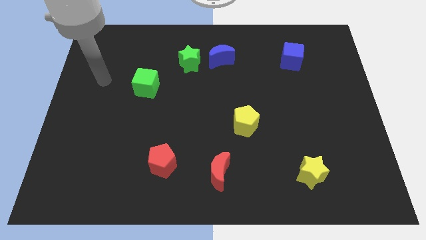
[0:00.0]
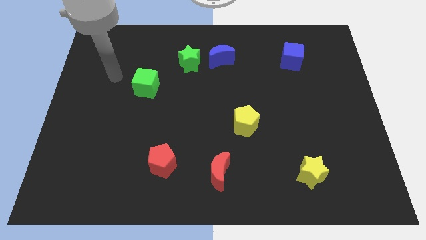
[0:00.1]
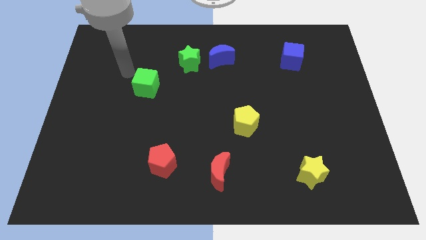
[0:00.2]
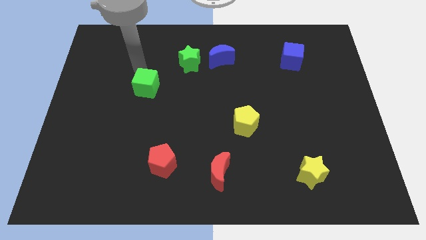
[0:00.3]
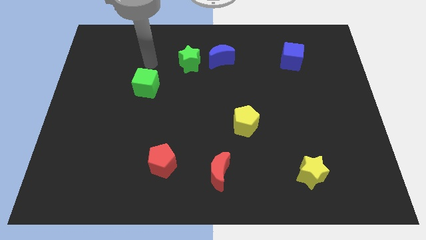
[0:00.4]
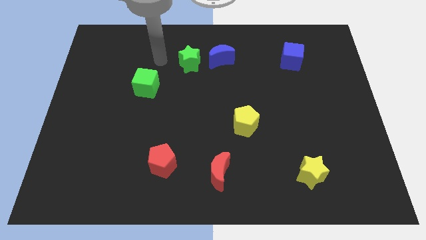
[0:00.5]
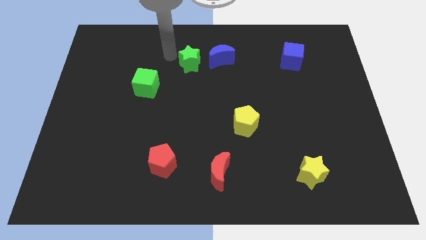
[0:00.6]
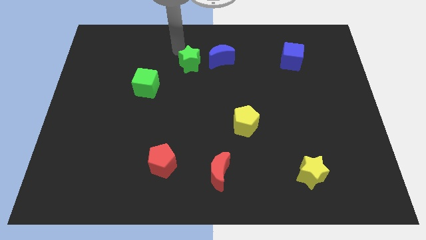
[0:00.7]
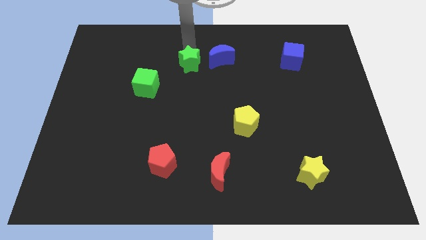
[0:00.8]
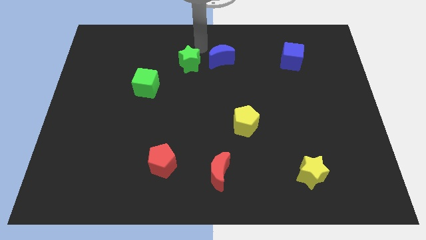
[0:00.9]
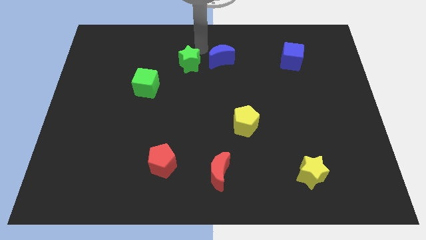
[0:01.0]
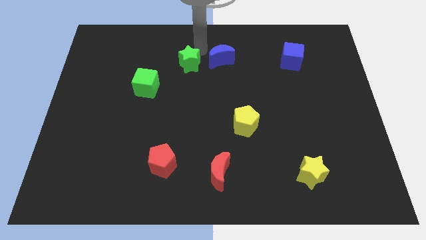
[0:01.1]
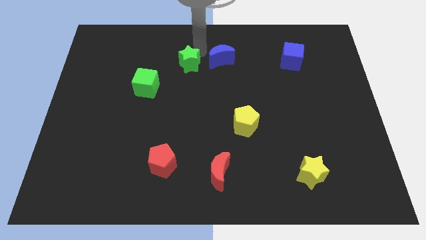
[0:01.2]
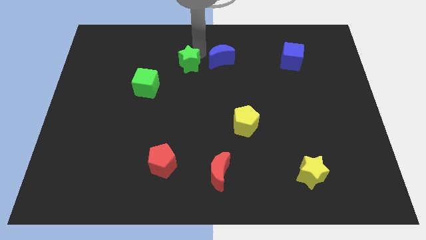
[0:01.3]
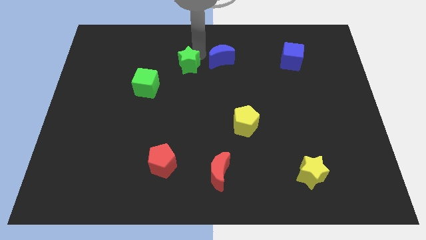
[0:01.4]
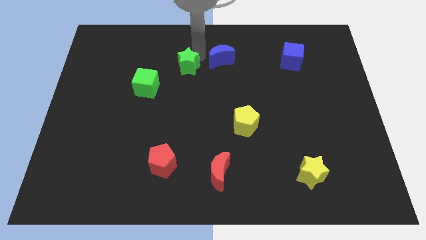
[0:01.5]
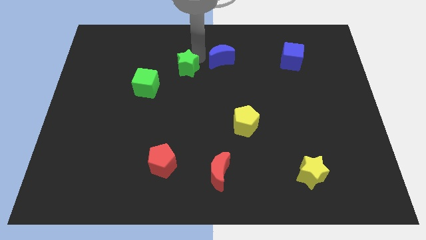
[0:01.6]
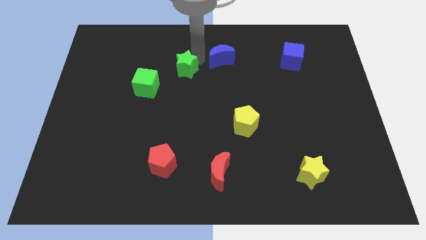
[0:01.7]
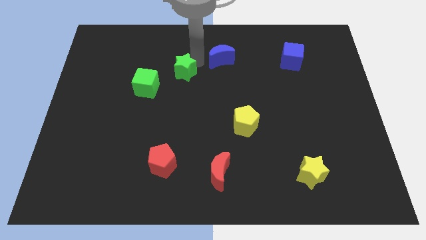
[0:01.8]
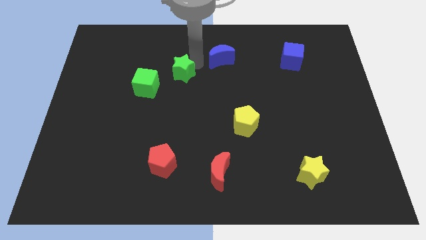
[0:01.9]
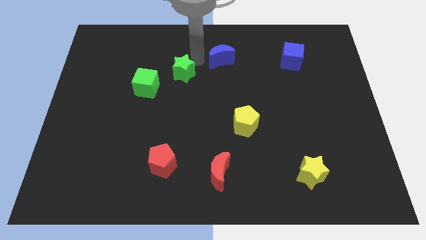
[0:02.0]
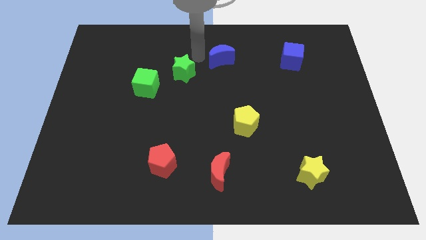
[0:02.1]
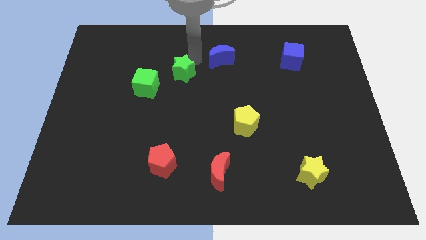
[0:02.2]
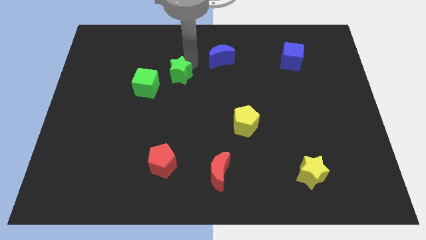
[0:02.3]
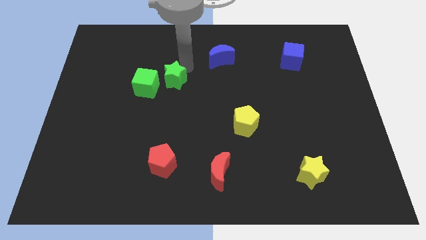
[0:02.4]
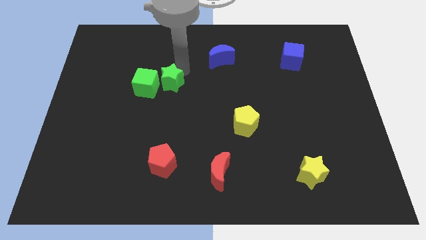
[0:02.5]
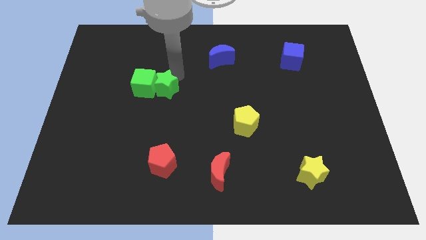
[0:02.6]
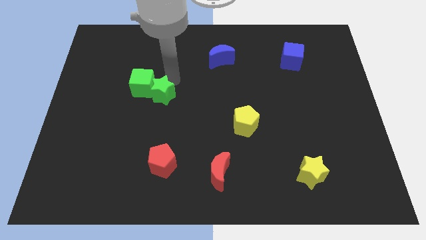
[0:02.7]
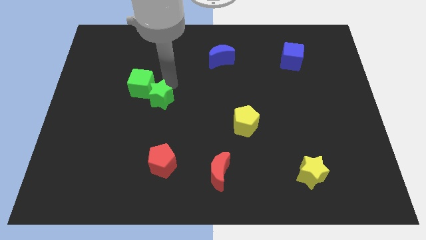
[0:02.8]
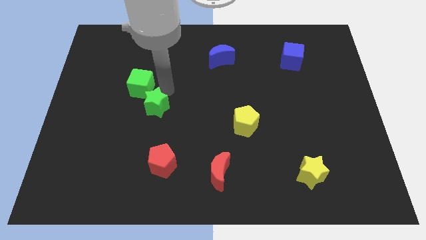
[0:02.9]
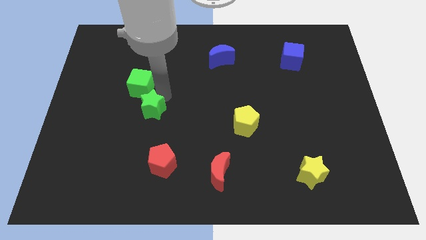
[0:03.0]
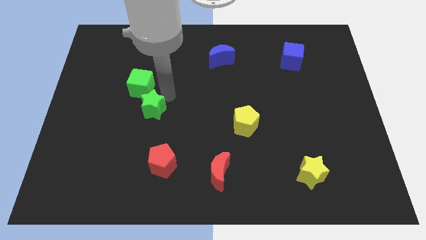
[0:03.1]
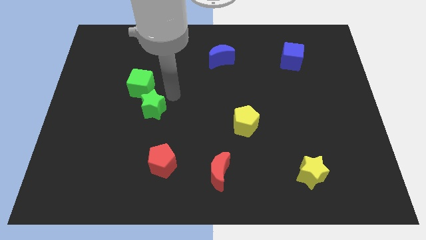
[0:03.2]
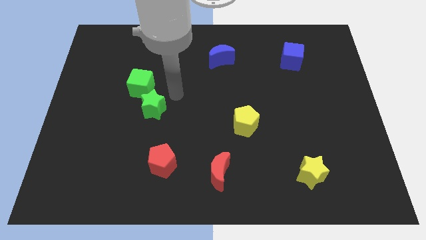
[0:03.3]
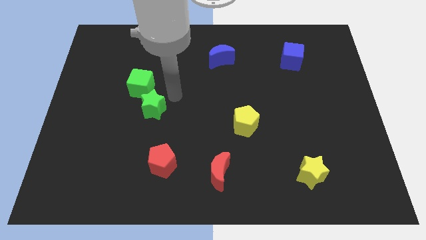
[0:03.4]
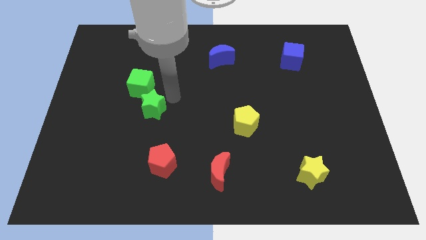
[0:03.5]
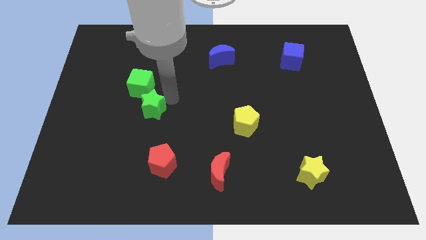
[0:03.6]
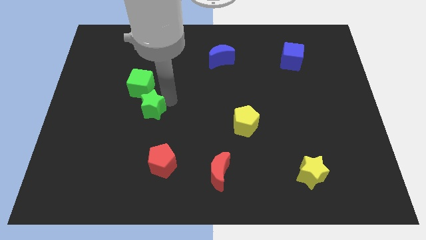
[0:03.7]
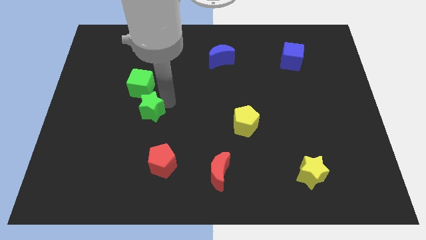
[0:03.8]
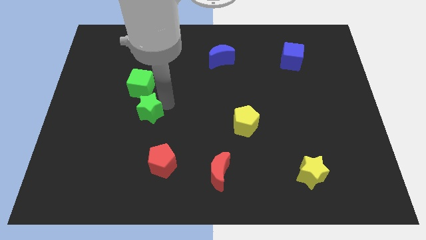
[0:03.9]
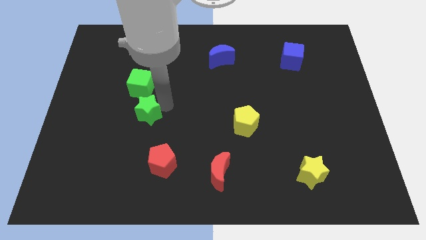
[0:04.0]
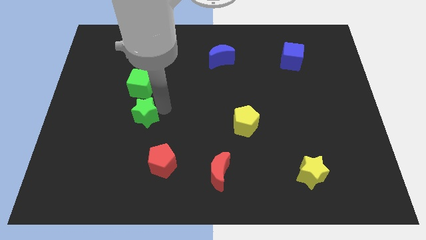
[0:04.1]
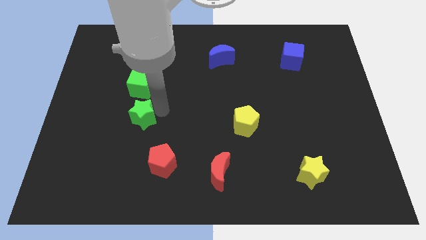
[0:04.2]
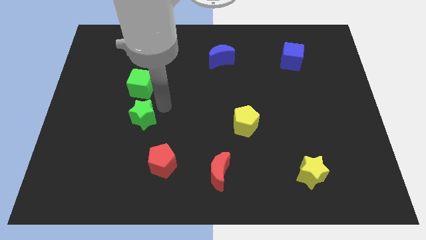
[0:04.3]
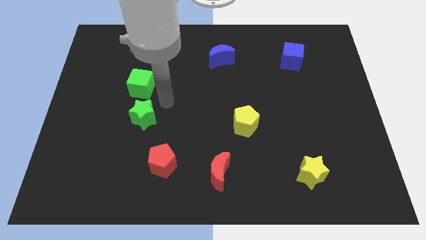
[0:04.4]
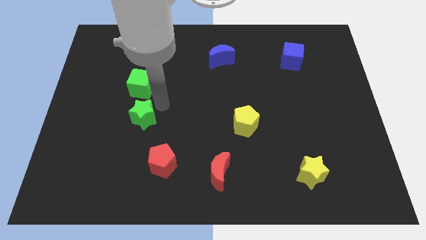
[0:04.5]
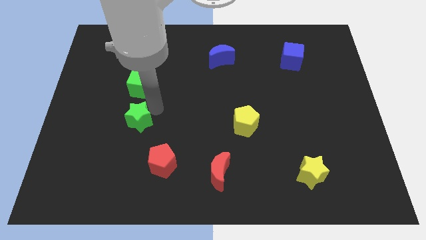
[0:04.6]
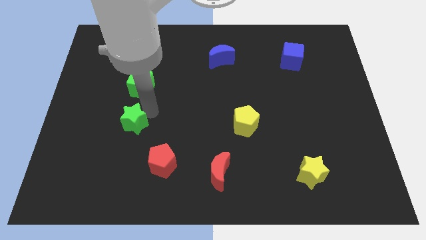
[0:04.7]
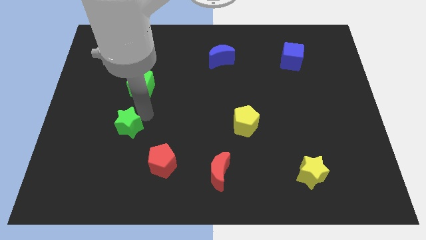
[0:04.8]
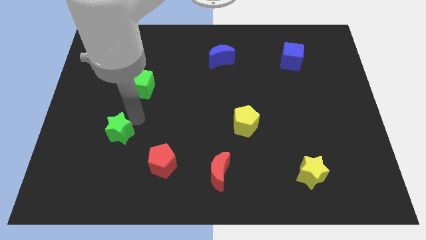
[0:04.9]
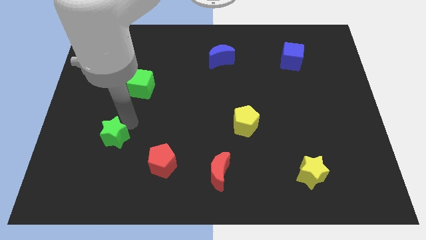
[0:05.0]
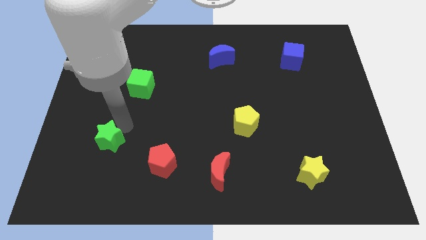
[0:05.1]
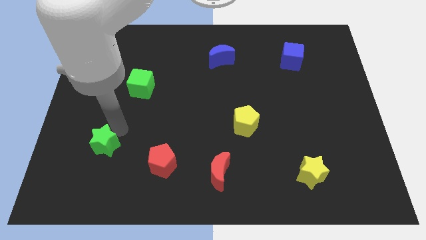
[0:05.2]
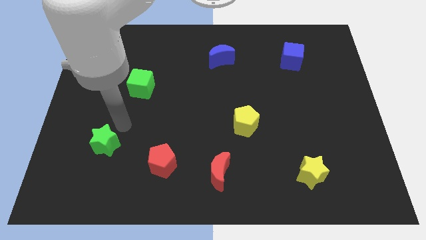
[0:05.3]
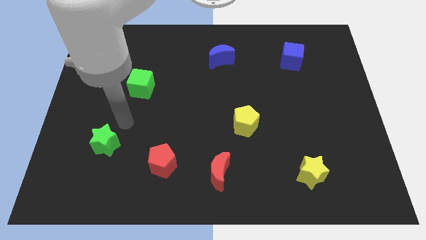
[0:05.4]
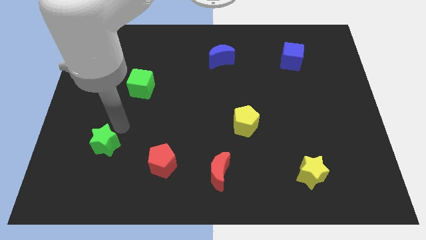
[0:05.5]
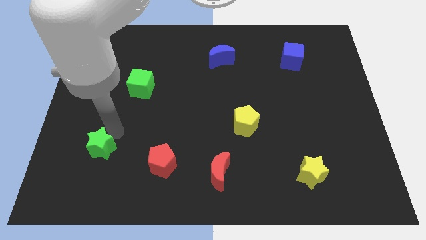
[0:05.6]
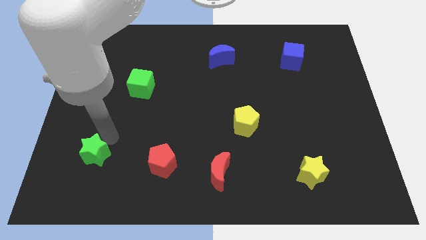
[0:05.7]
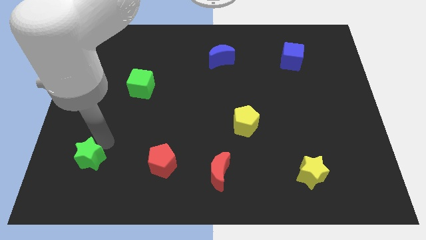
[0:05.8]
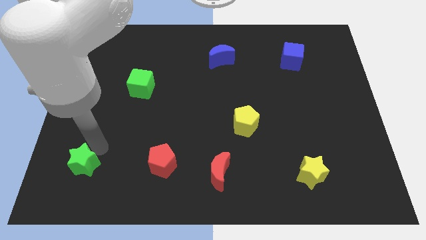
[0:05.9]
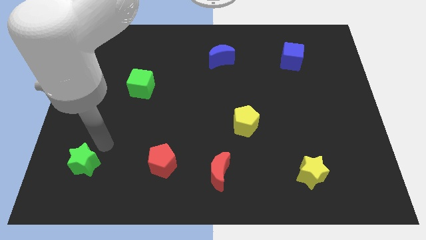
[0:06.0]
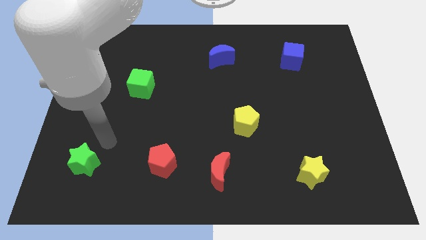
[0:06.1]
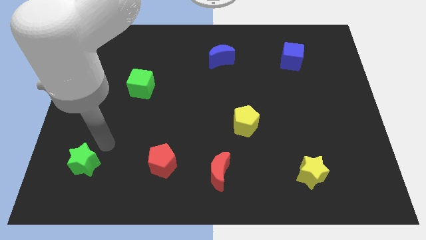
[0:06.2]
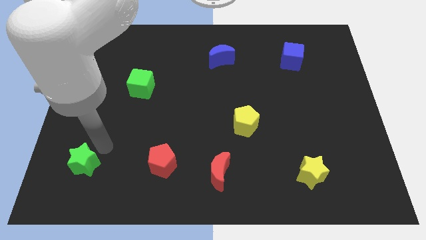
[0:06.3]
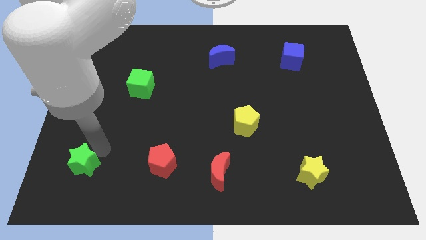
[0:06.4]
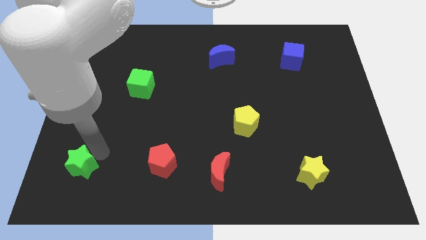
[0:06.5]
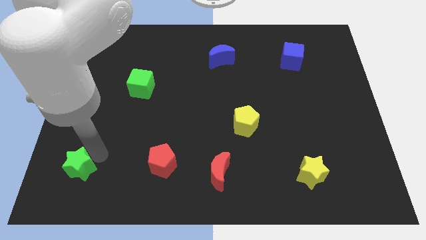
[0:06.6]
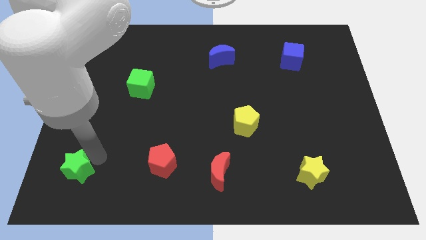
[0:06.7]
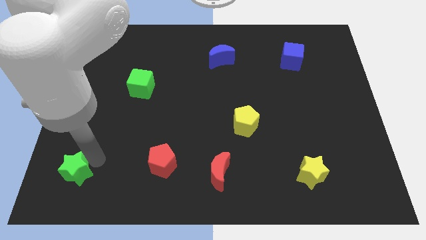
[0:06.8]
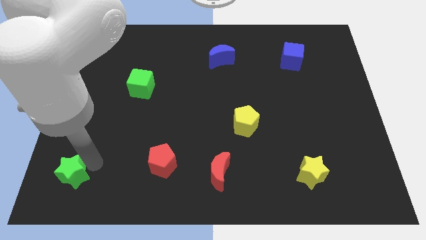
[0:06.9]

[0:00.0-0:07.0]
put the green star to the bottom left
